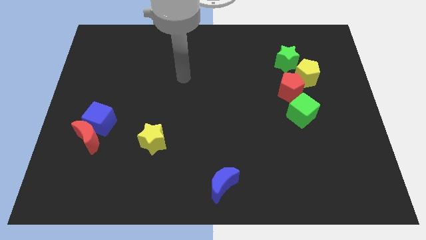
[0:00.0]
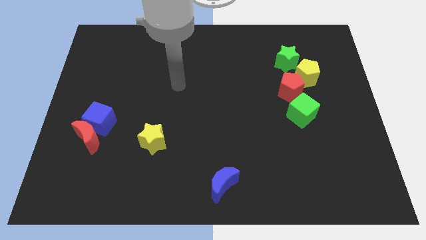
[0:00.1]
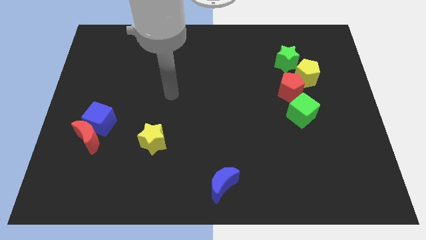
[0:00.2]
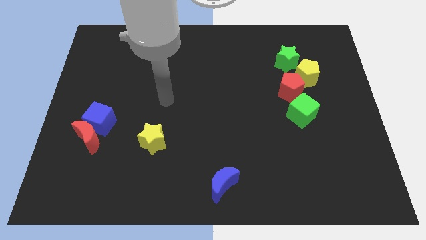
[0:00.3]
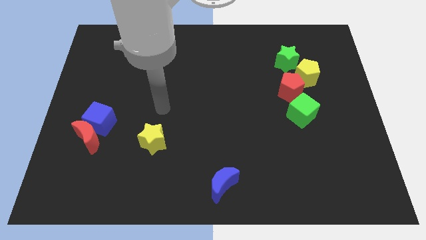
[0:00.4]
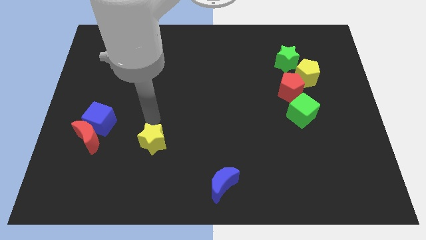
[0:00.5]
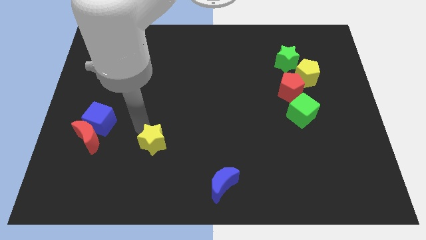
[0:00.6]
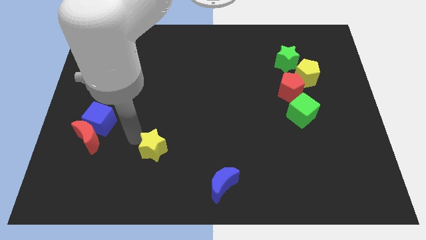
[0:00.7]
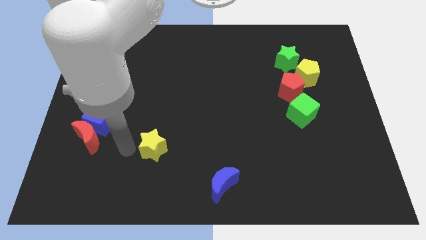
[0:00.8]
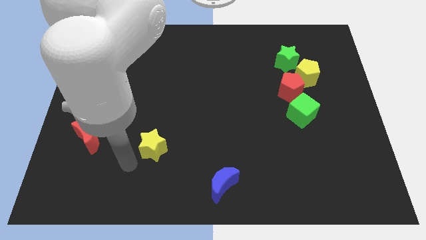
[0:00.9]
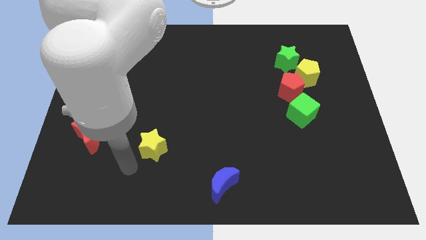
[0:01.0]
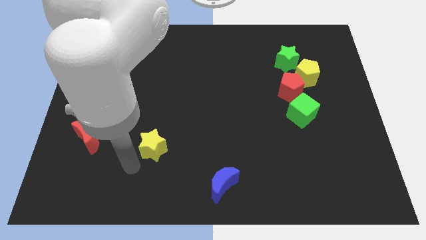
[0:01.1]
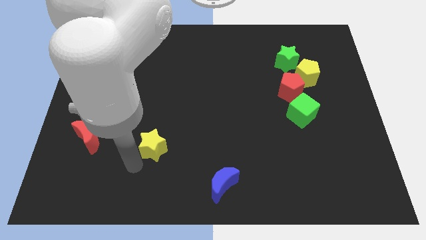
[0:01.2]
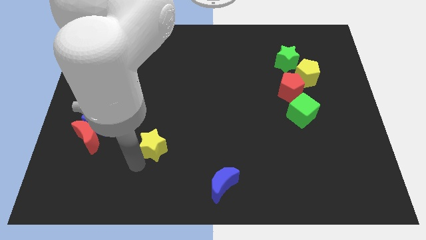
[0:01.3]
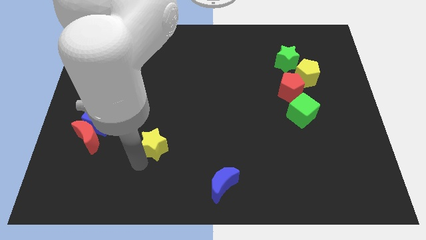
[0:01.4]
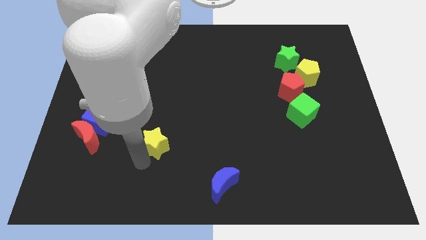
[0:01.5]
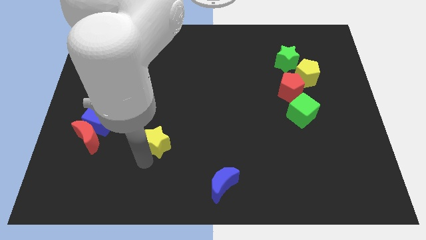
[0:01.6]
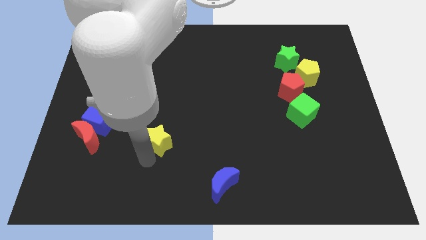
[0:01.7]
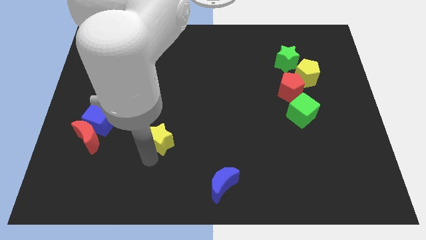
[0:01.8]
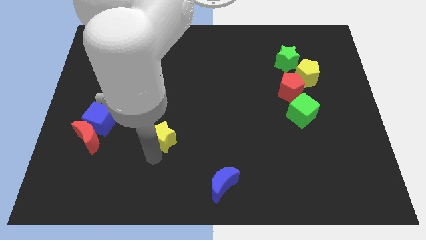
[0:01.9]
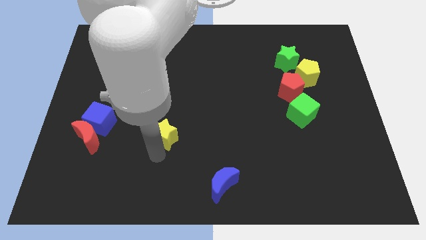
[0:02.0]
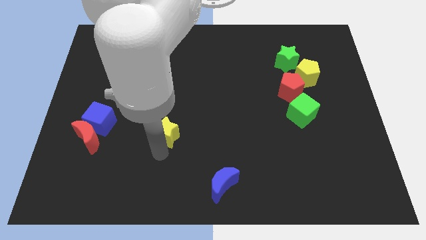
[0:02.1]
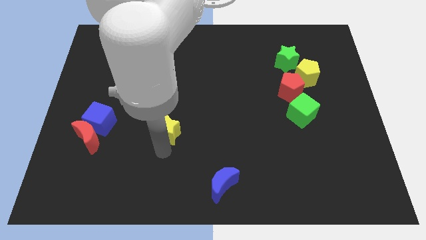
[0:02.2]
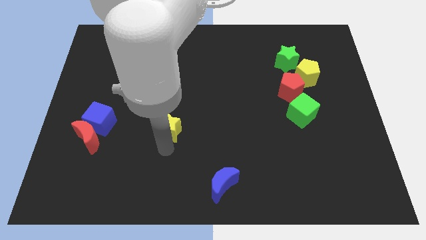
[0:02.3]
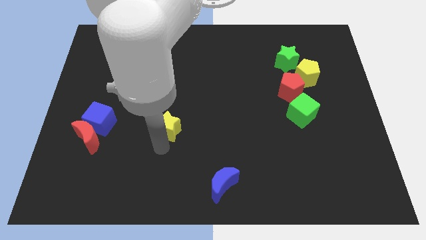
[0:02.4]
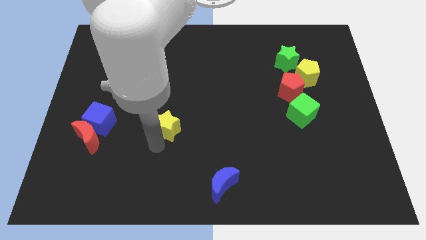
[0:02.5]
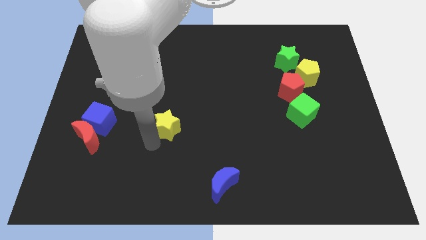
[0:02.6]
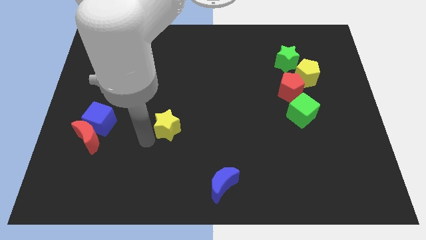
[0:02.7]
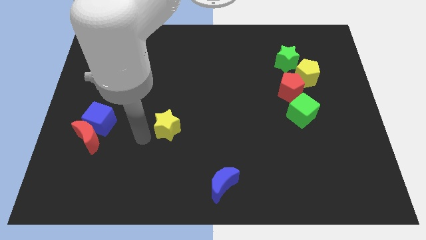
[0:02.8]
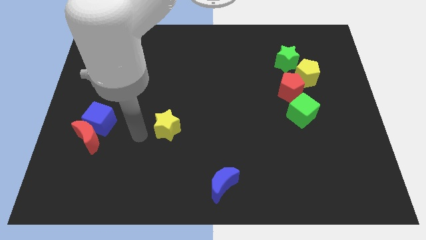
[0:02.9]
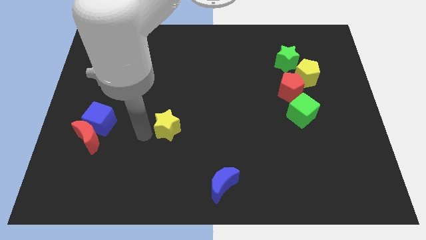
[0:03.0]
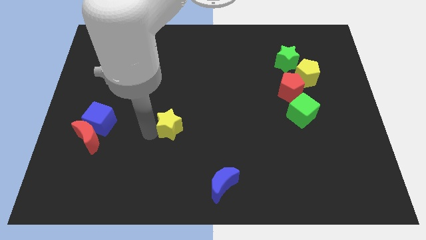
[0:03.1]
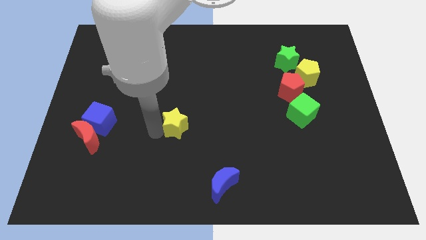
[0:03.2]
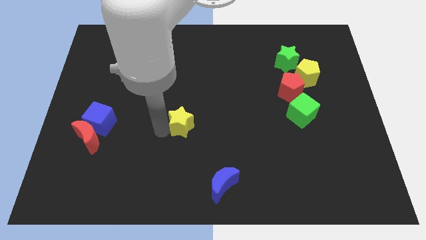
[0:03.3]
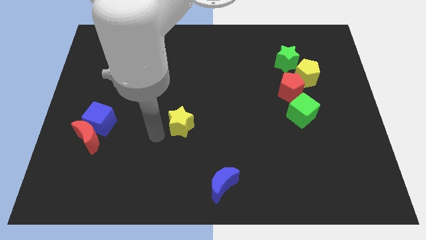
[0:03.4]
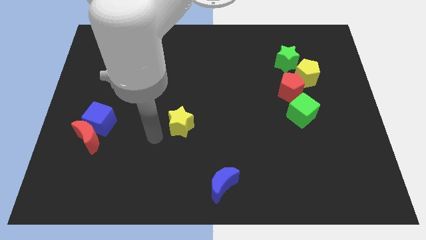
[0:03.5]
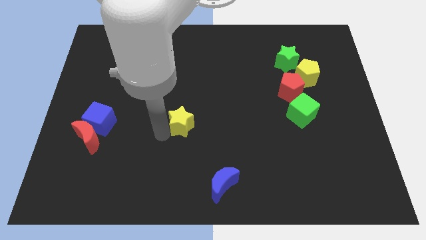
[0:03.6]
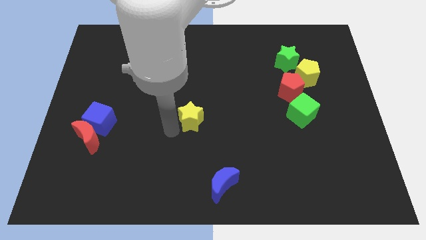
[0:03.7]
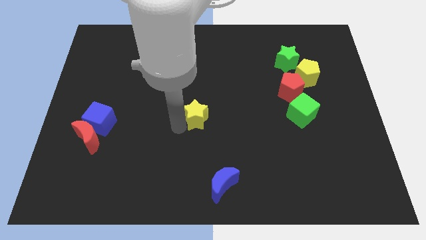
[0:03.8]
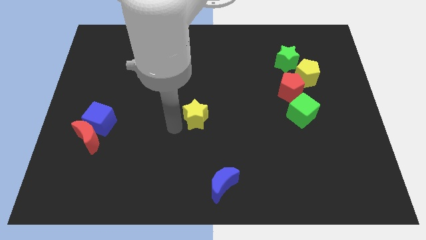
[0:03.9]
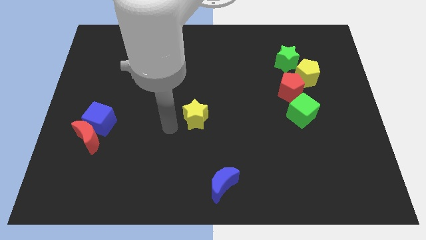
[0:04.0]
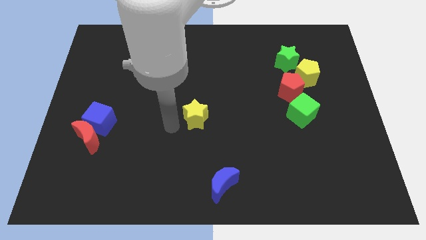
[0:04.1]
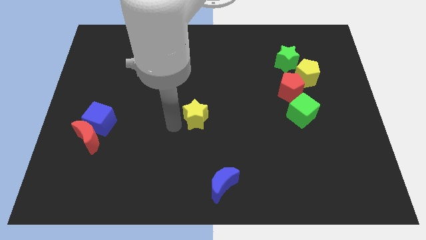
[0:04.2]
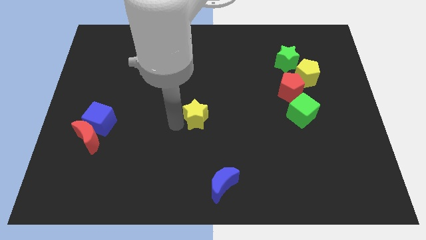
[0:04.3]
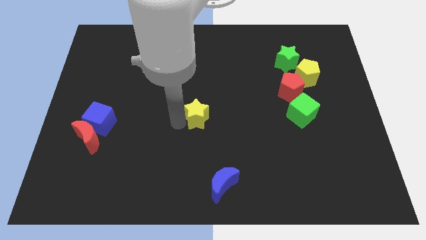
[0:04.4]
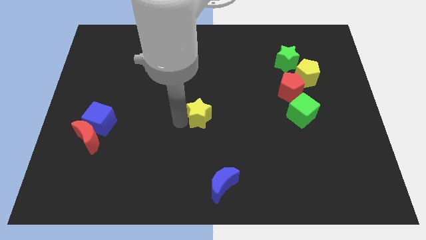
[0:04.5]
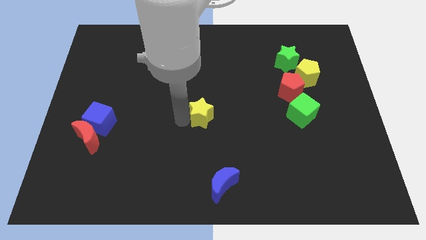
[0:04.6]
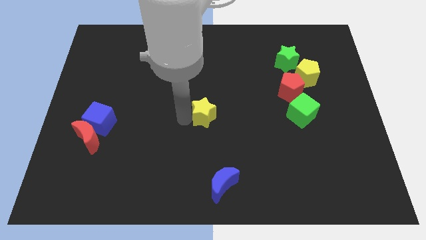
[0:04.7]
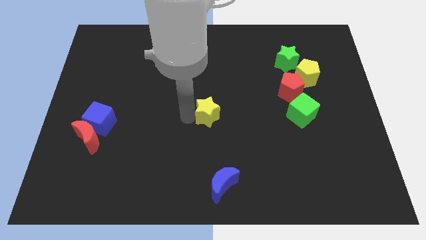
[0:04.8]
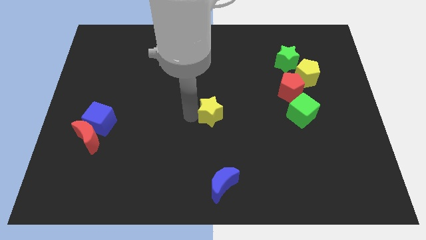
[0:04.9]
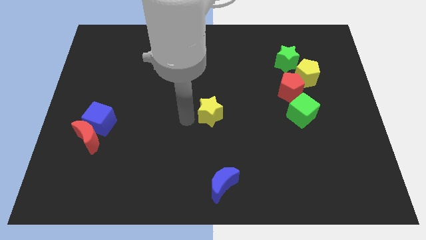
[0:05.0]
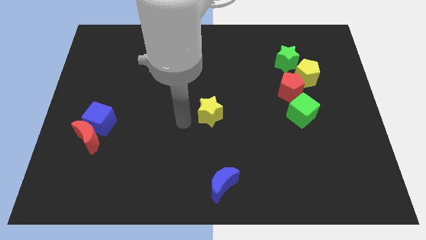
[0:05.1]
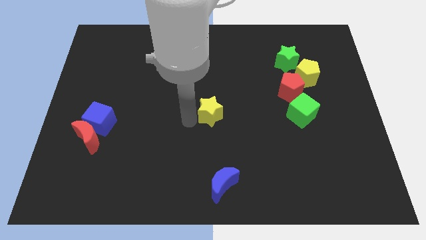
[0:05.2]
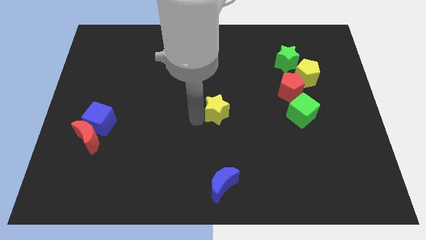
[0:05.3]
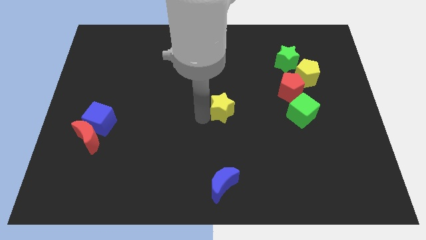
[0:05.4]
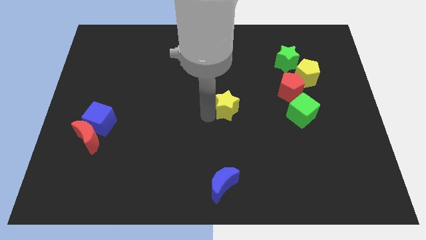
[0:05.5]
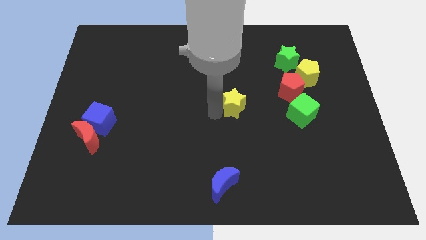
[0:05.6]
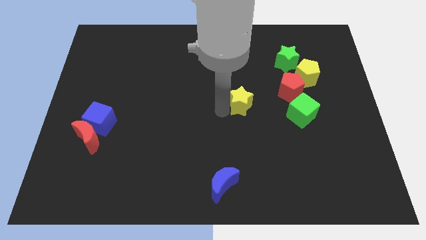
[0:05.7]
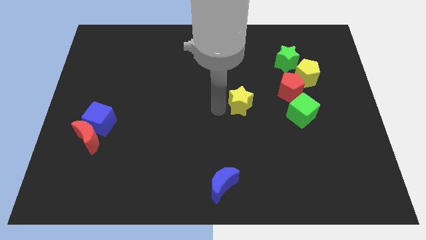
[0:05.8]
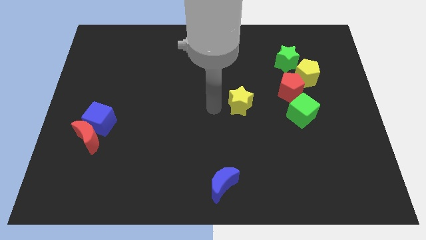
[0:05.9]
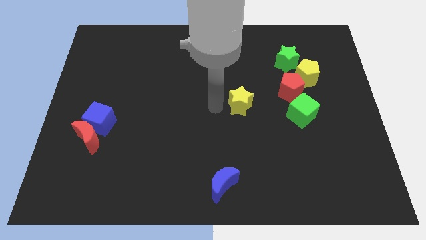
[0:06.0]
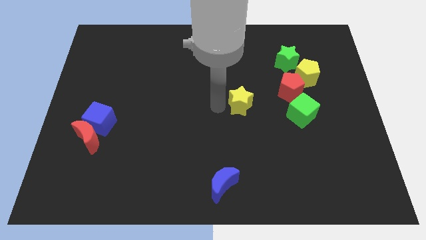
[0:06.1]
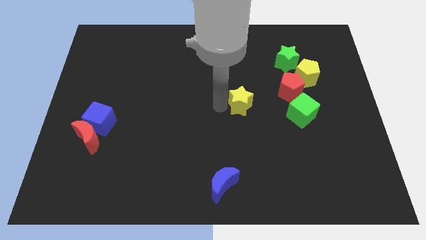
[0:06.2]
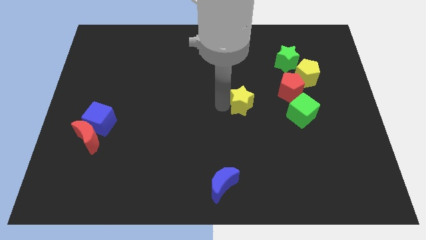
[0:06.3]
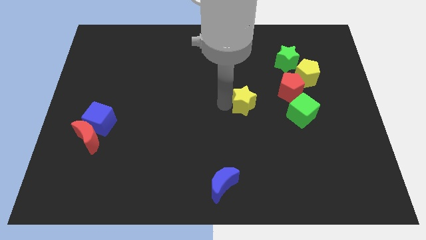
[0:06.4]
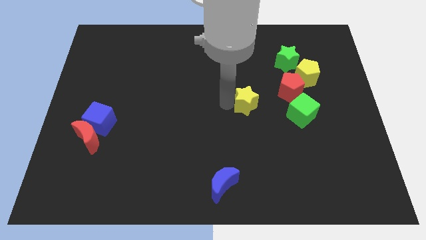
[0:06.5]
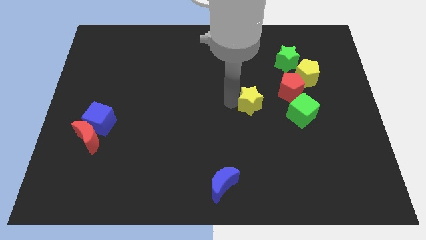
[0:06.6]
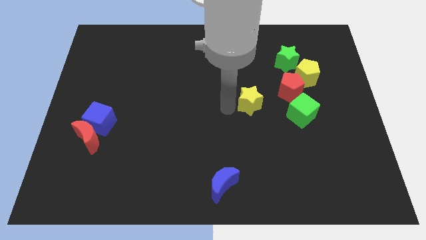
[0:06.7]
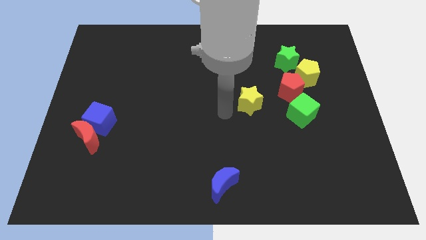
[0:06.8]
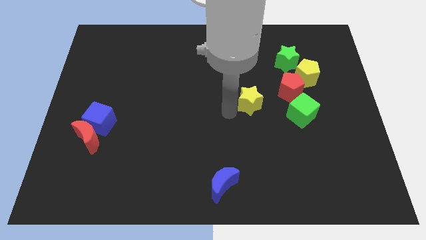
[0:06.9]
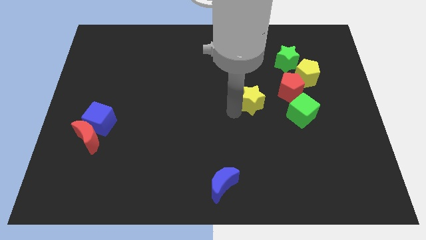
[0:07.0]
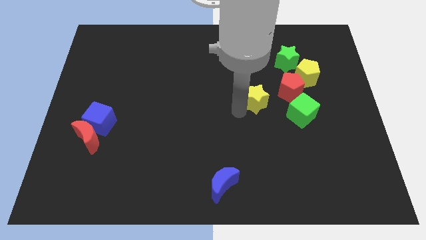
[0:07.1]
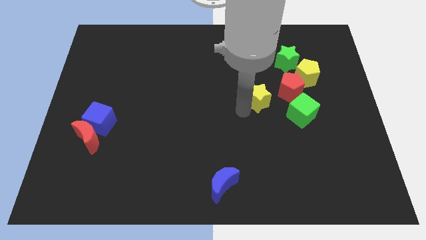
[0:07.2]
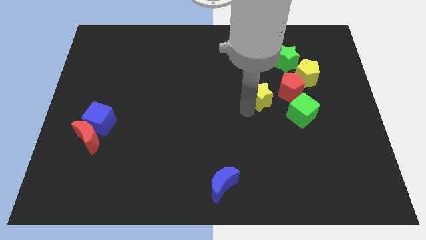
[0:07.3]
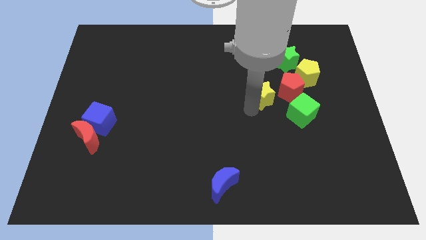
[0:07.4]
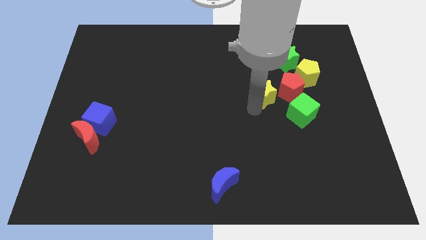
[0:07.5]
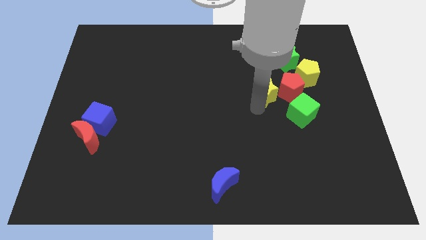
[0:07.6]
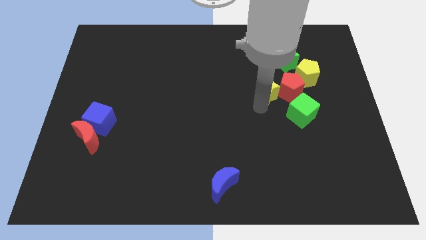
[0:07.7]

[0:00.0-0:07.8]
move the yellow star towards the red pentagon

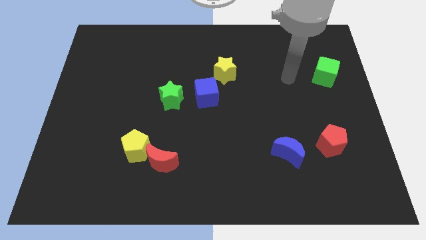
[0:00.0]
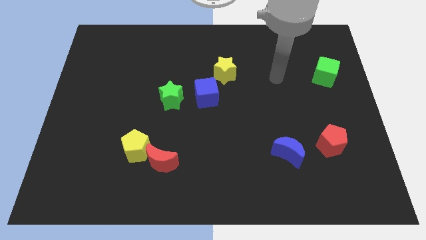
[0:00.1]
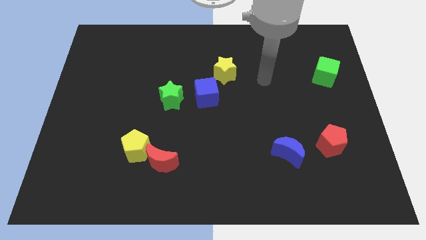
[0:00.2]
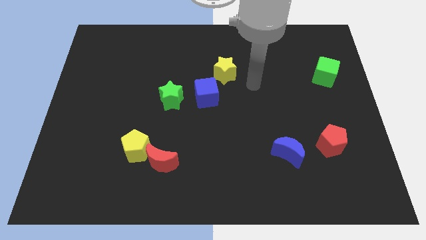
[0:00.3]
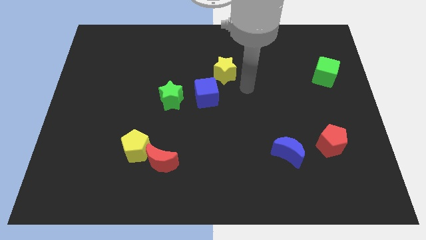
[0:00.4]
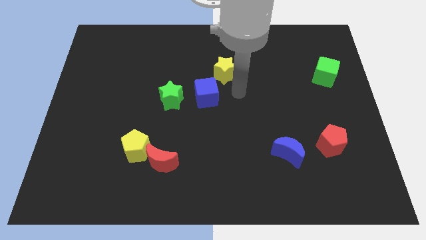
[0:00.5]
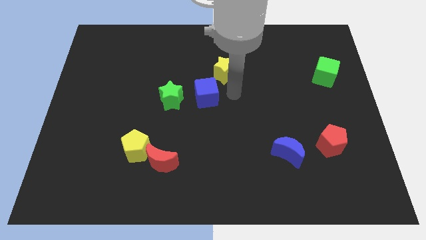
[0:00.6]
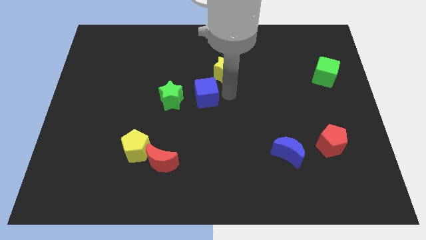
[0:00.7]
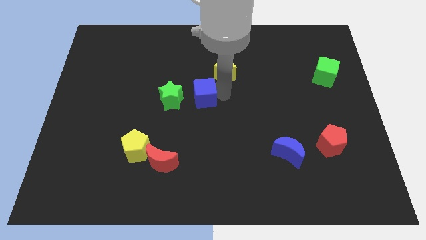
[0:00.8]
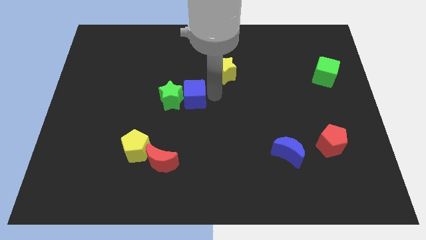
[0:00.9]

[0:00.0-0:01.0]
push the blue cube close to the green star
